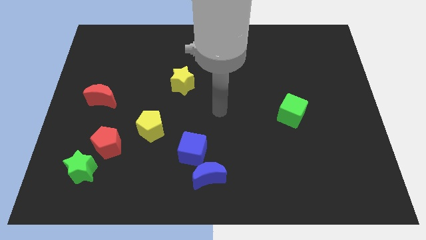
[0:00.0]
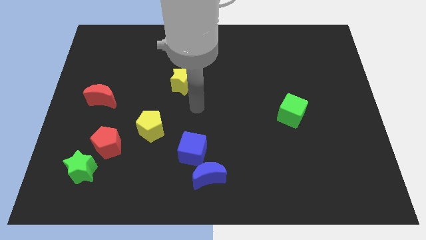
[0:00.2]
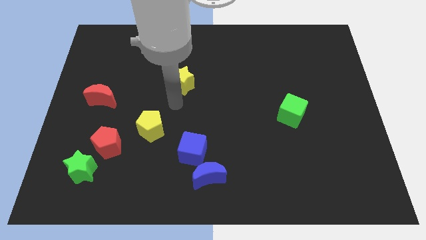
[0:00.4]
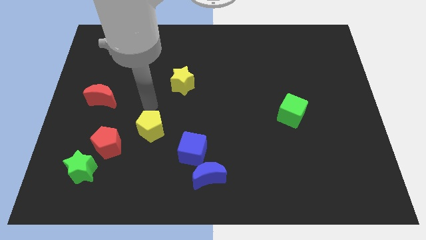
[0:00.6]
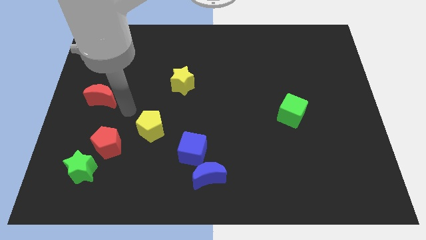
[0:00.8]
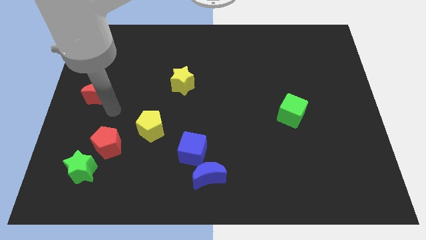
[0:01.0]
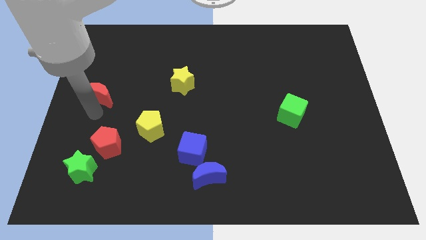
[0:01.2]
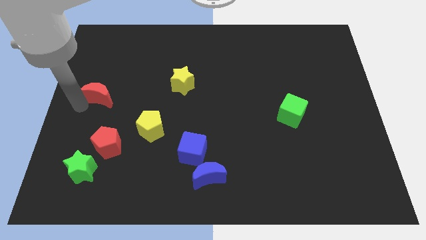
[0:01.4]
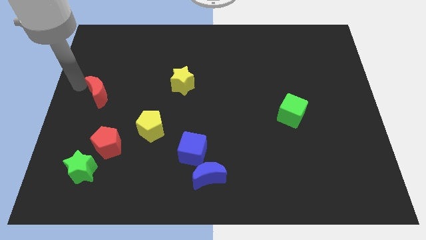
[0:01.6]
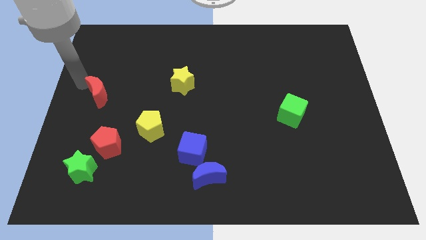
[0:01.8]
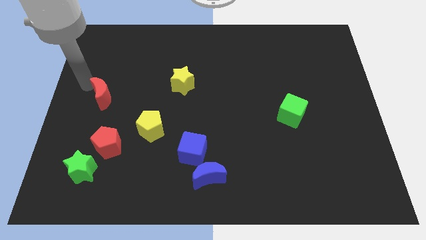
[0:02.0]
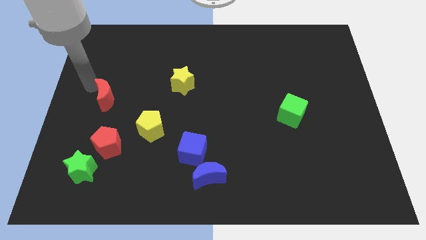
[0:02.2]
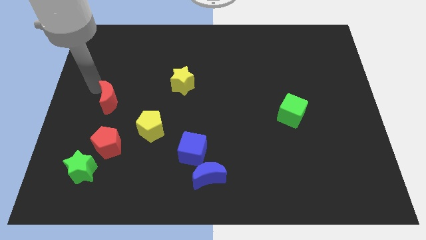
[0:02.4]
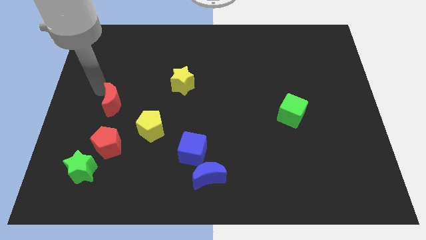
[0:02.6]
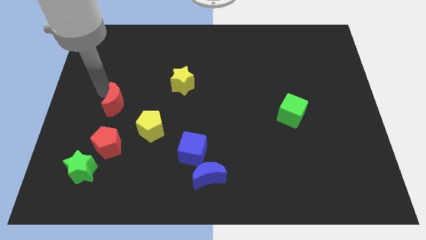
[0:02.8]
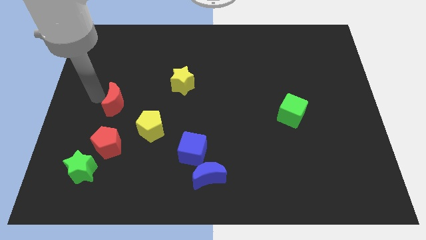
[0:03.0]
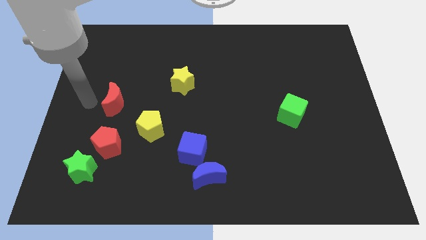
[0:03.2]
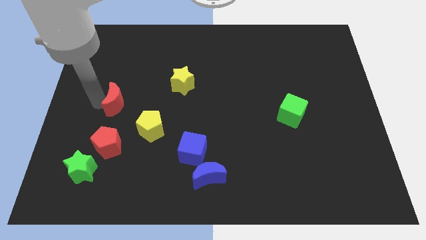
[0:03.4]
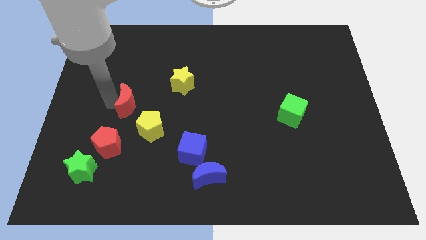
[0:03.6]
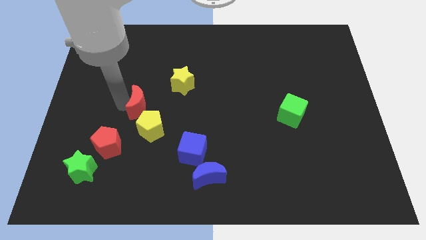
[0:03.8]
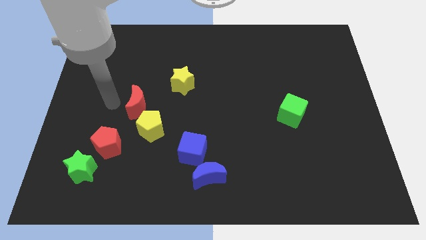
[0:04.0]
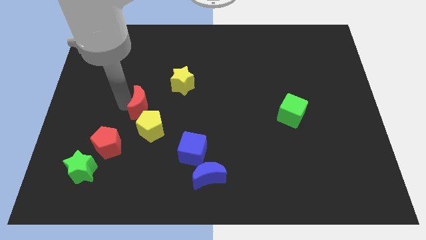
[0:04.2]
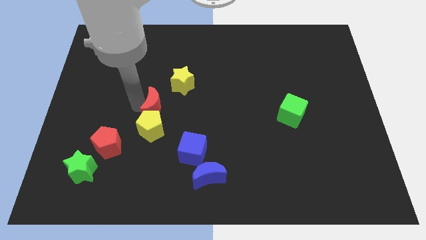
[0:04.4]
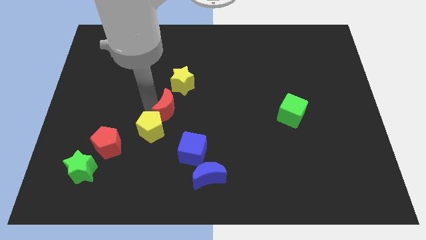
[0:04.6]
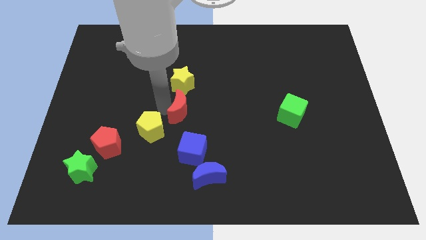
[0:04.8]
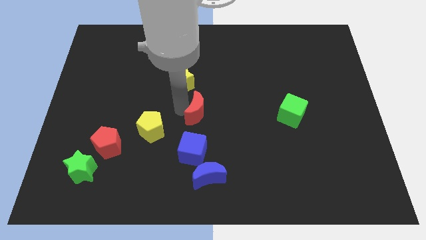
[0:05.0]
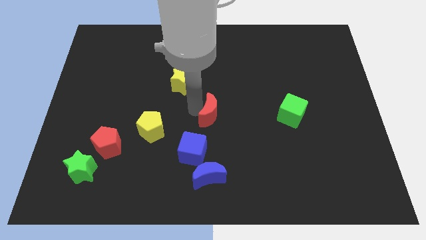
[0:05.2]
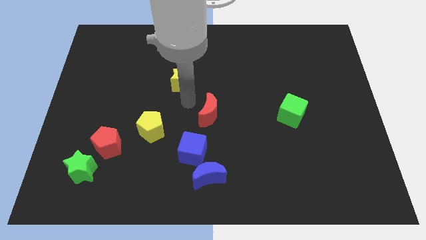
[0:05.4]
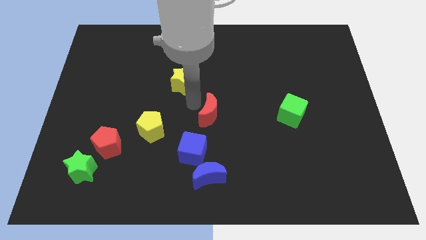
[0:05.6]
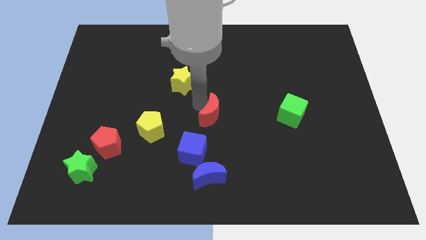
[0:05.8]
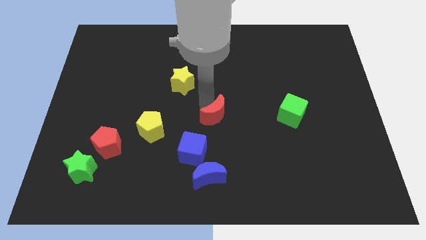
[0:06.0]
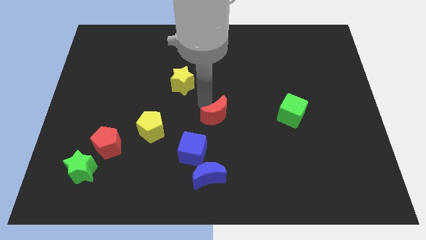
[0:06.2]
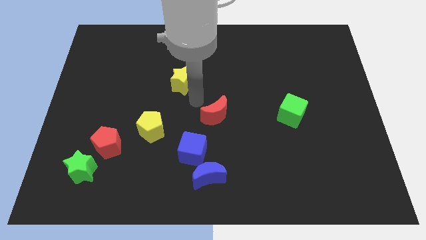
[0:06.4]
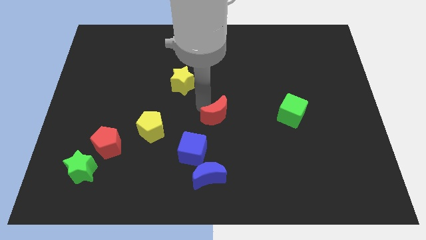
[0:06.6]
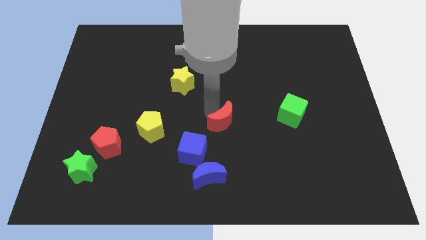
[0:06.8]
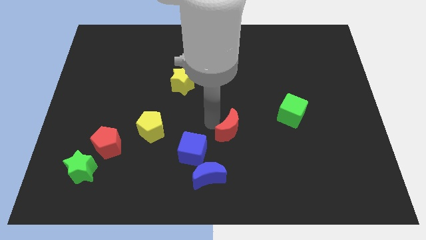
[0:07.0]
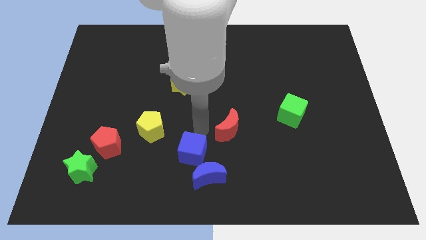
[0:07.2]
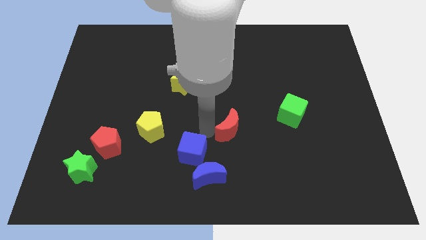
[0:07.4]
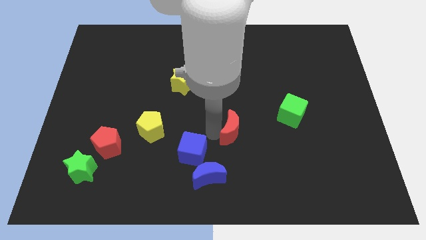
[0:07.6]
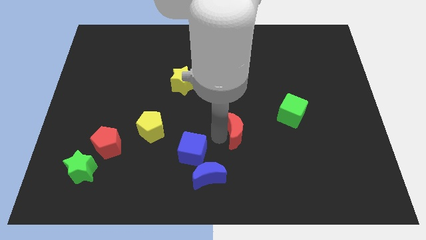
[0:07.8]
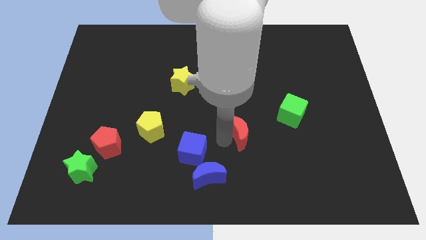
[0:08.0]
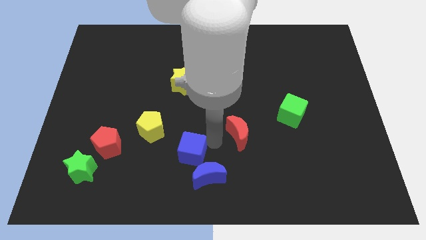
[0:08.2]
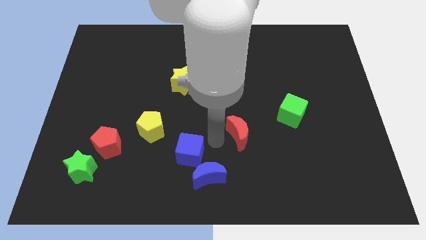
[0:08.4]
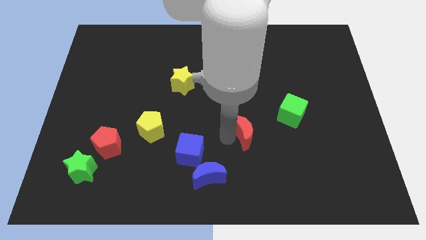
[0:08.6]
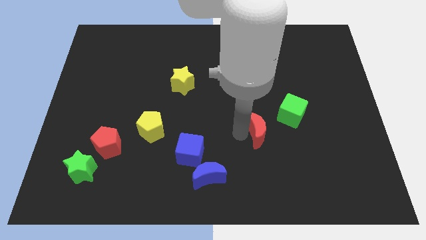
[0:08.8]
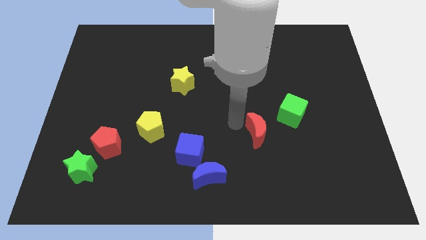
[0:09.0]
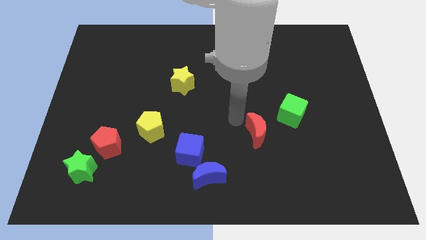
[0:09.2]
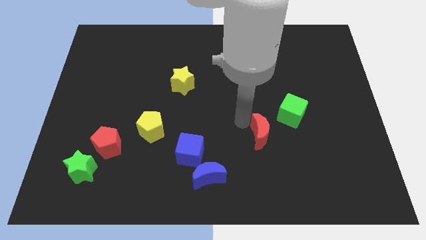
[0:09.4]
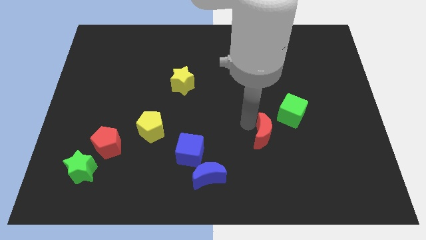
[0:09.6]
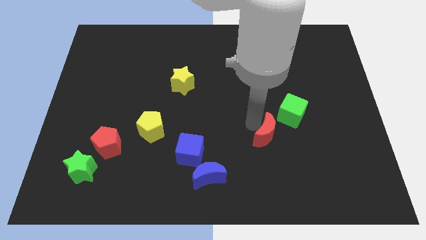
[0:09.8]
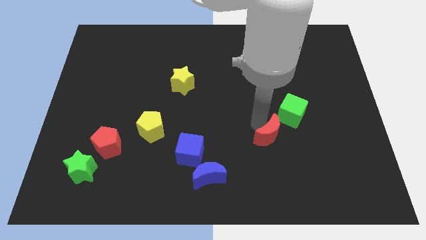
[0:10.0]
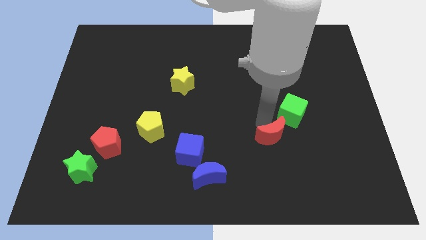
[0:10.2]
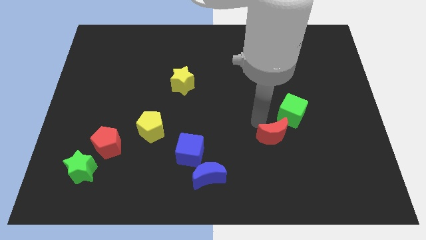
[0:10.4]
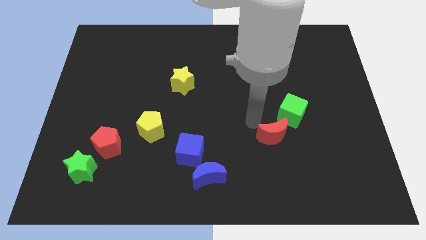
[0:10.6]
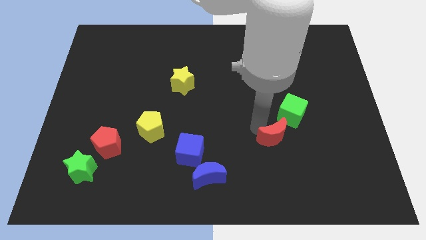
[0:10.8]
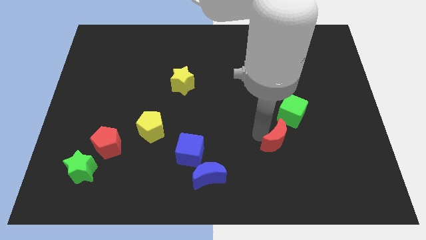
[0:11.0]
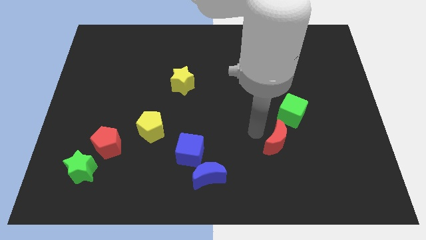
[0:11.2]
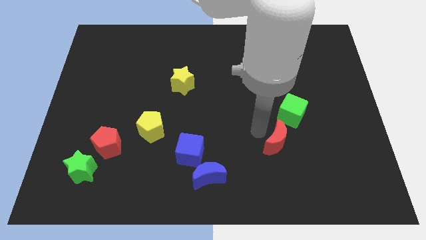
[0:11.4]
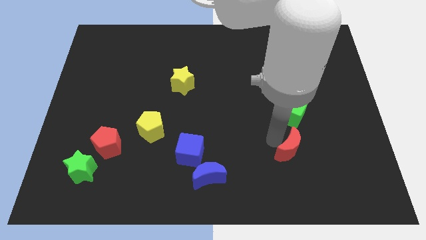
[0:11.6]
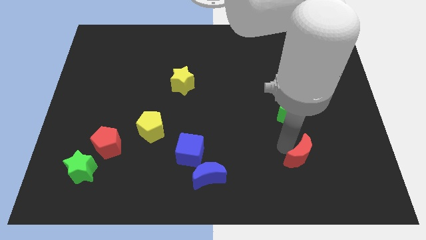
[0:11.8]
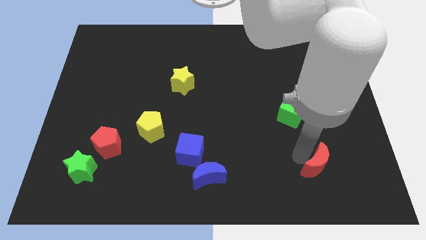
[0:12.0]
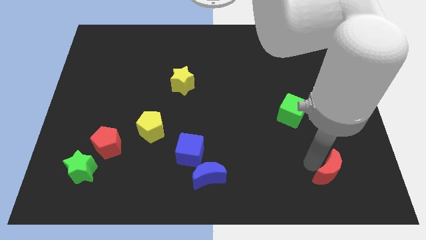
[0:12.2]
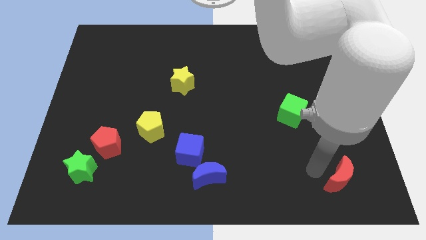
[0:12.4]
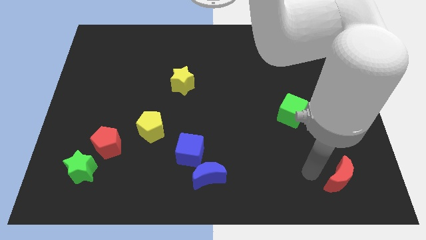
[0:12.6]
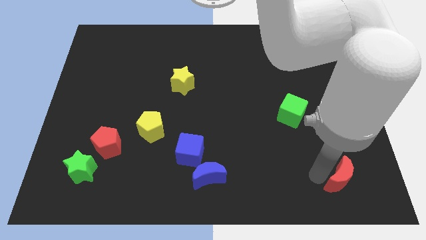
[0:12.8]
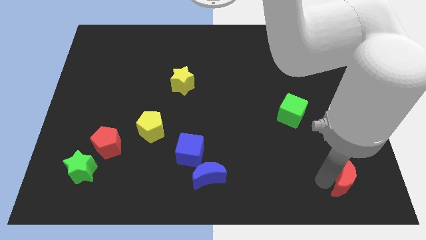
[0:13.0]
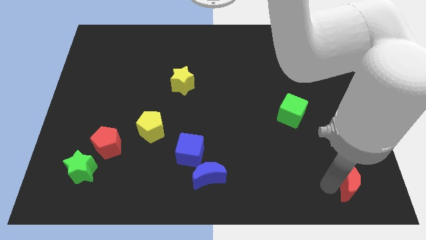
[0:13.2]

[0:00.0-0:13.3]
slide the red moon to the bottom right of the board

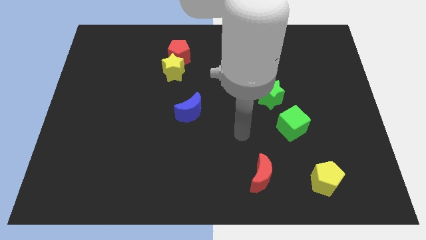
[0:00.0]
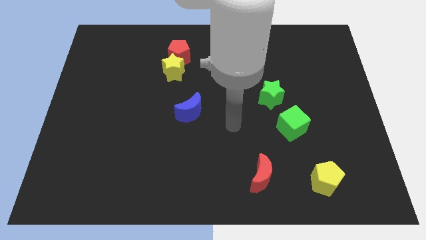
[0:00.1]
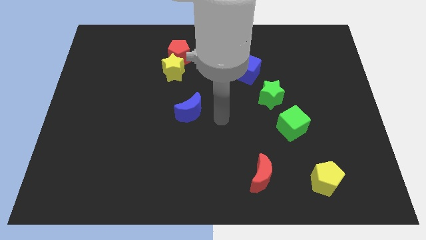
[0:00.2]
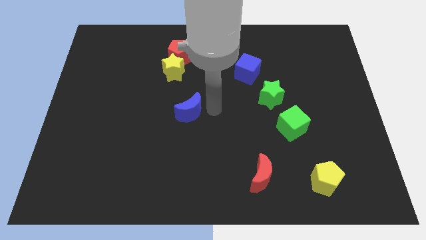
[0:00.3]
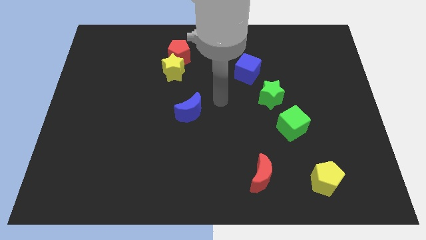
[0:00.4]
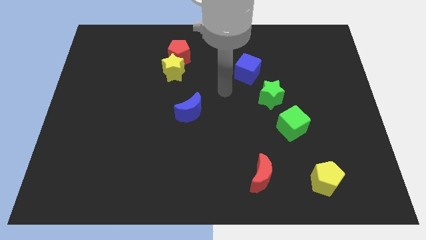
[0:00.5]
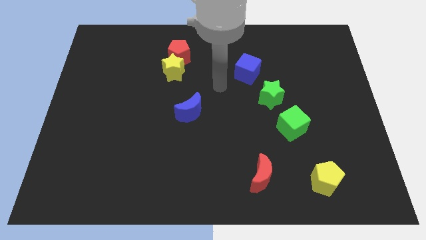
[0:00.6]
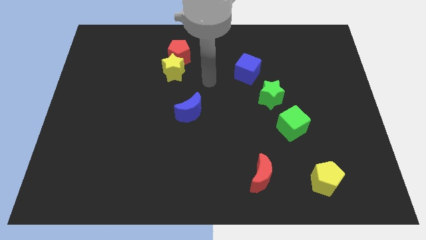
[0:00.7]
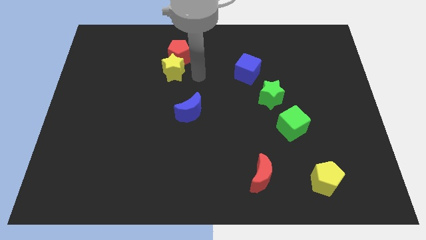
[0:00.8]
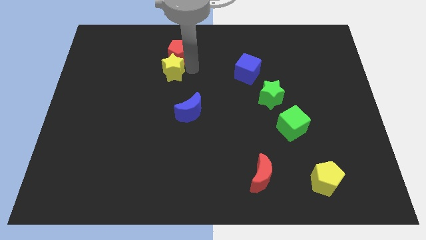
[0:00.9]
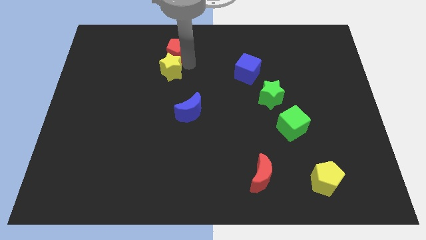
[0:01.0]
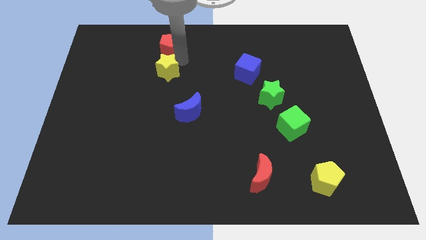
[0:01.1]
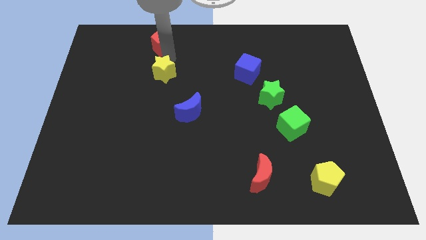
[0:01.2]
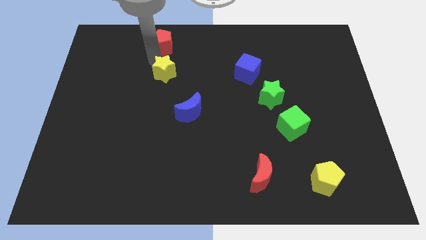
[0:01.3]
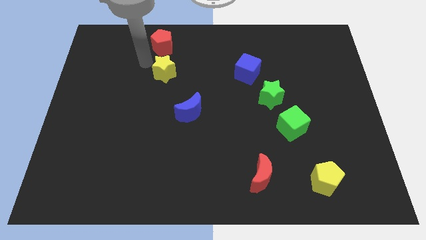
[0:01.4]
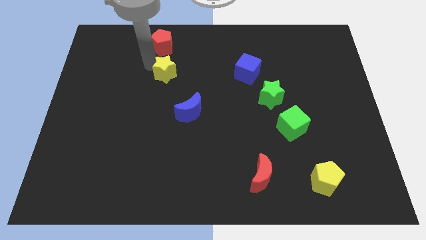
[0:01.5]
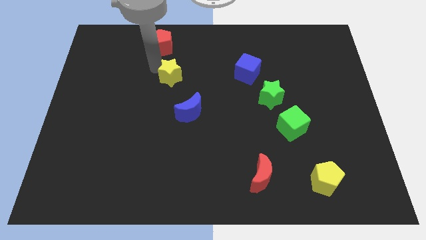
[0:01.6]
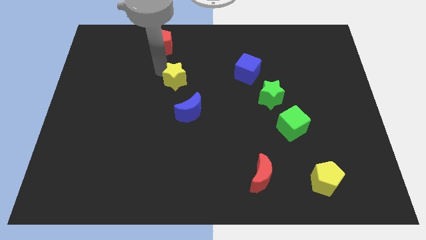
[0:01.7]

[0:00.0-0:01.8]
push the yellow star to the middle
